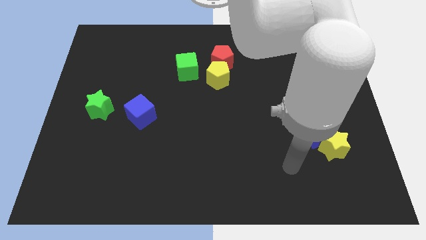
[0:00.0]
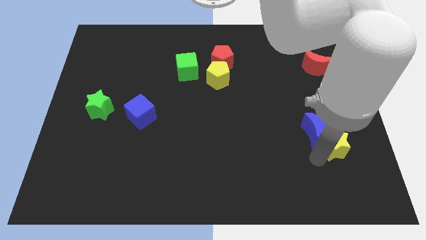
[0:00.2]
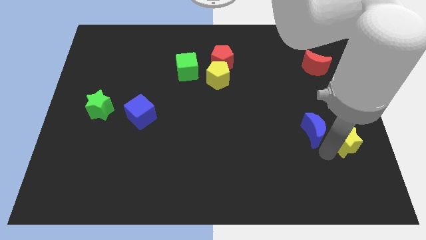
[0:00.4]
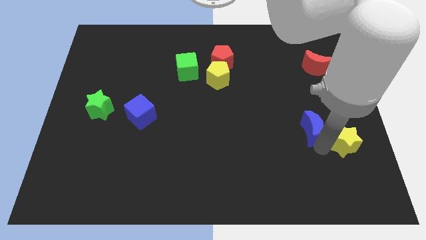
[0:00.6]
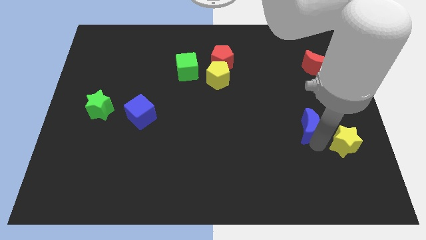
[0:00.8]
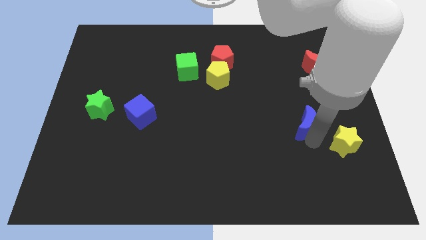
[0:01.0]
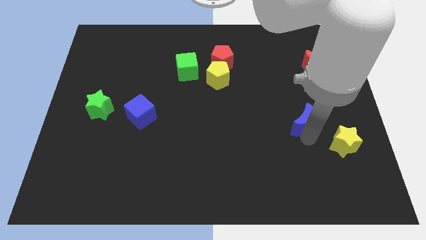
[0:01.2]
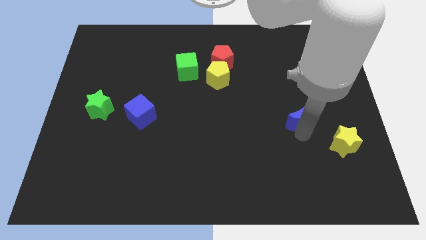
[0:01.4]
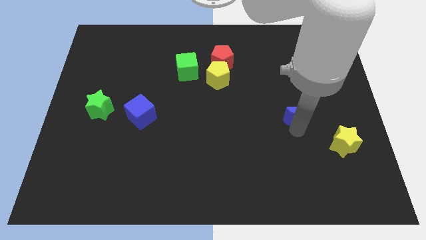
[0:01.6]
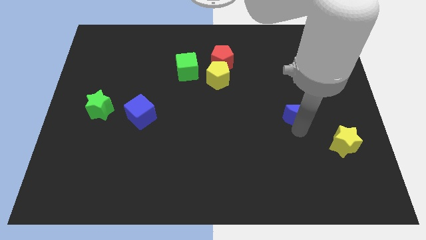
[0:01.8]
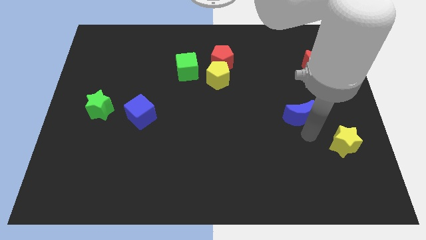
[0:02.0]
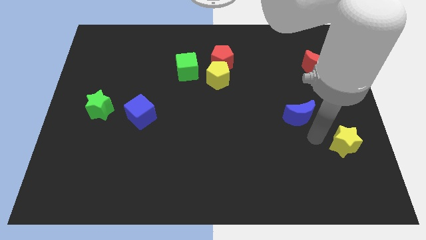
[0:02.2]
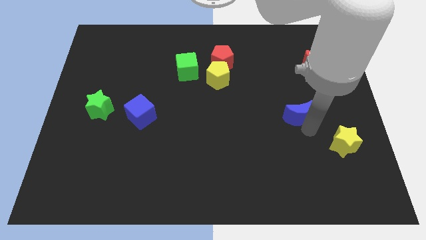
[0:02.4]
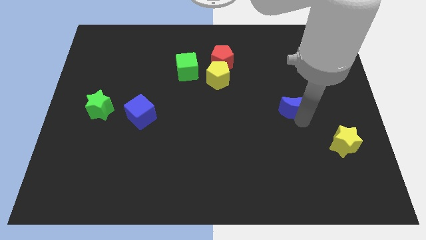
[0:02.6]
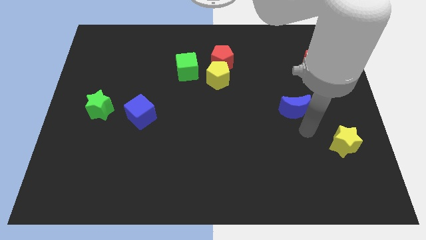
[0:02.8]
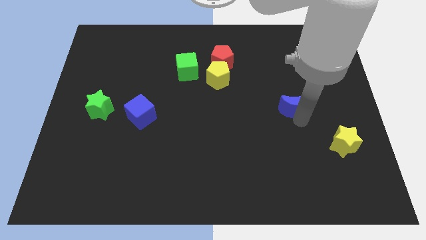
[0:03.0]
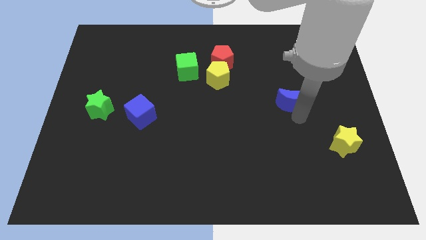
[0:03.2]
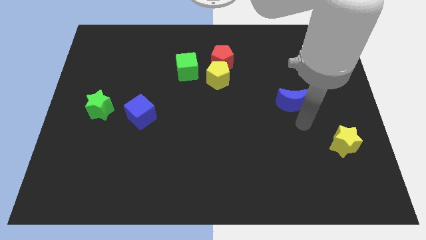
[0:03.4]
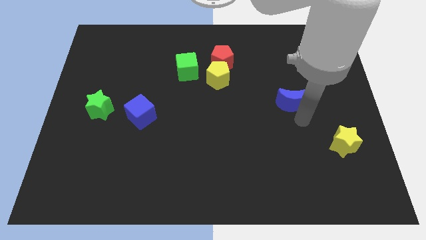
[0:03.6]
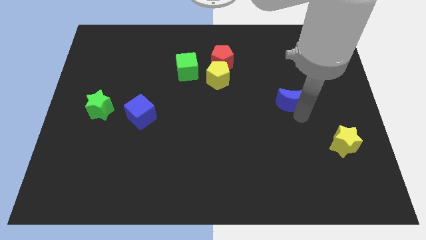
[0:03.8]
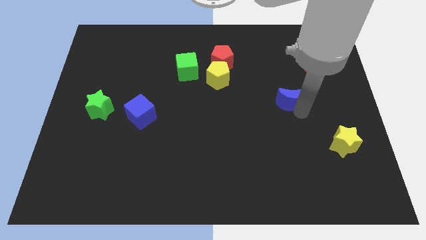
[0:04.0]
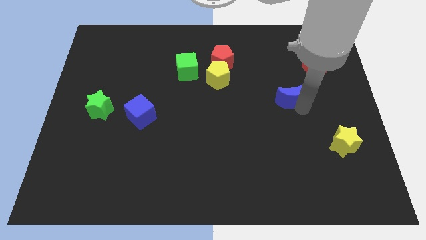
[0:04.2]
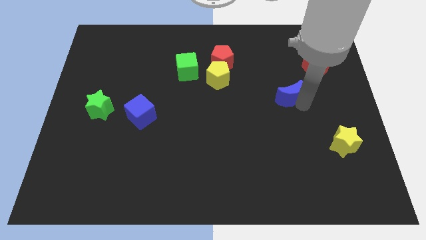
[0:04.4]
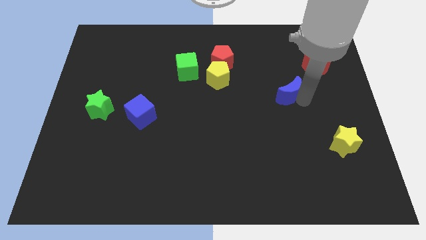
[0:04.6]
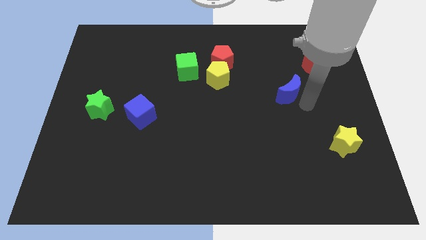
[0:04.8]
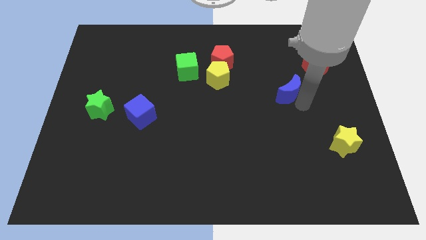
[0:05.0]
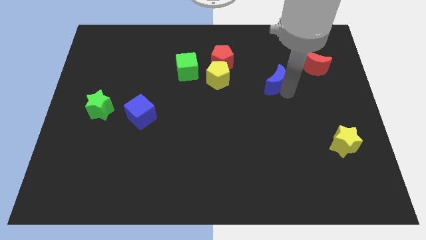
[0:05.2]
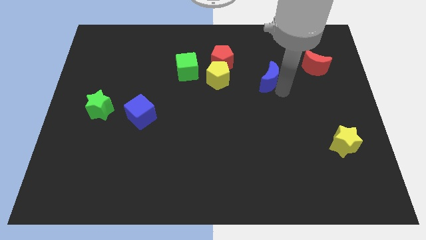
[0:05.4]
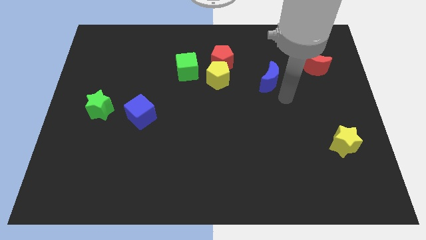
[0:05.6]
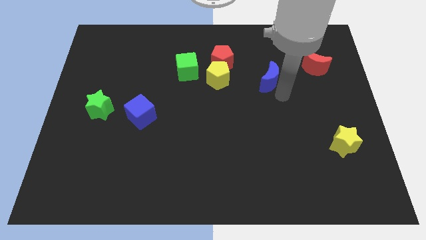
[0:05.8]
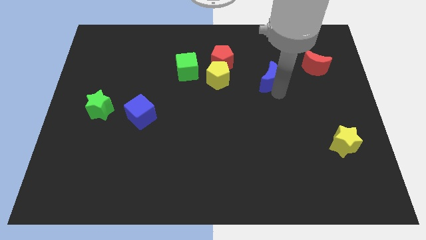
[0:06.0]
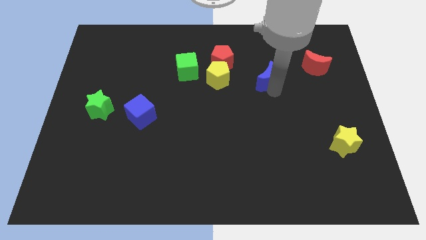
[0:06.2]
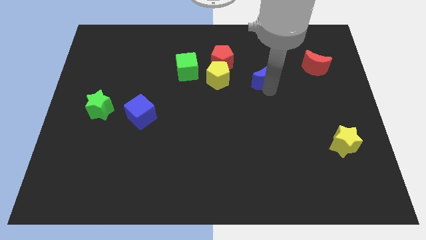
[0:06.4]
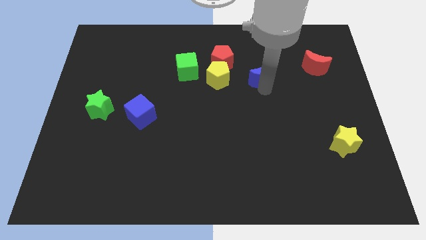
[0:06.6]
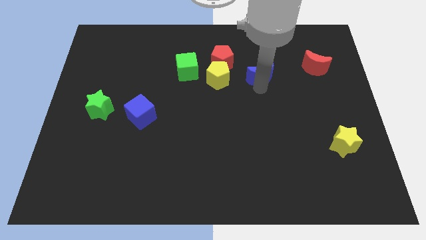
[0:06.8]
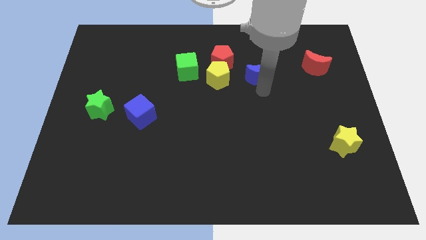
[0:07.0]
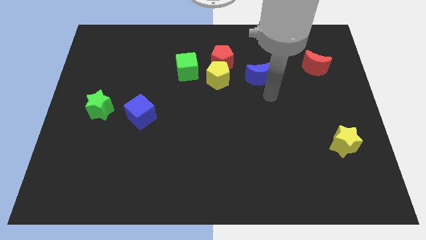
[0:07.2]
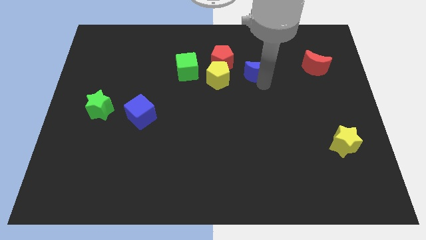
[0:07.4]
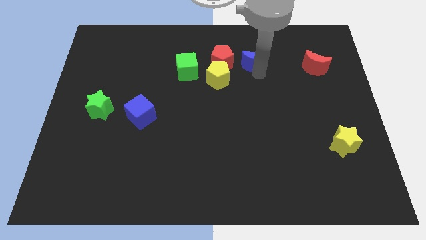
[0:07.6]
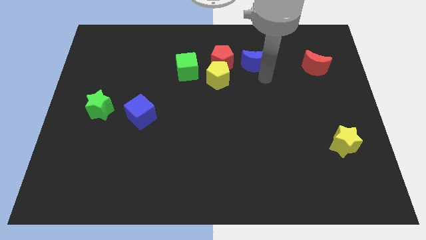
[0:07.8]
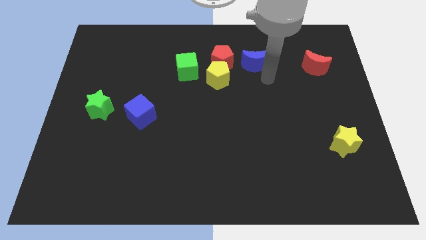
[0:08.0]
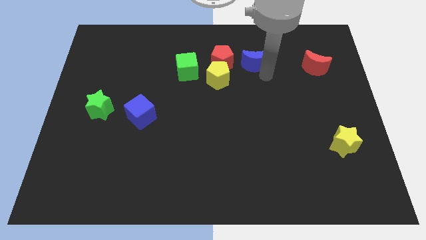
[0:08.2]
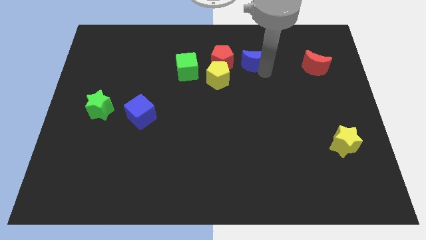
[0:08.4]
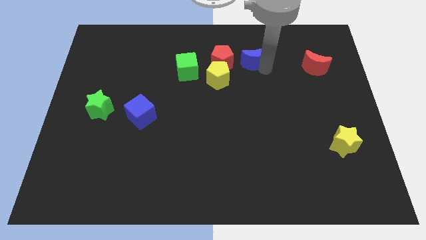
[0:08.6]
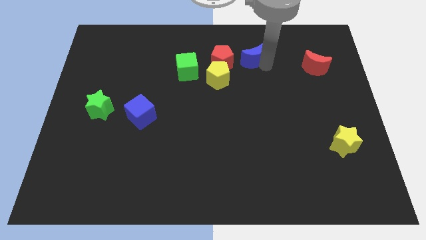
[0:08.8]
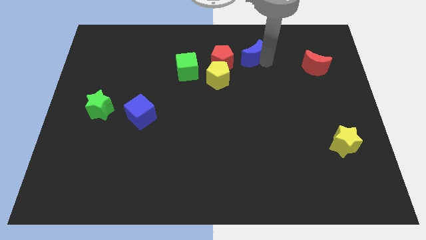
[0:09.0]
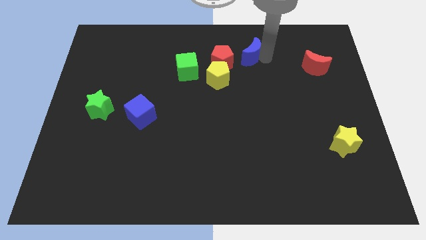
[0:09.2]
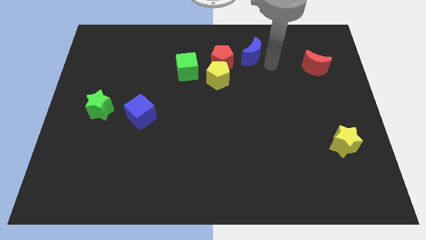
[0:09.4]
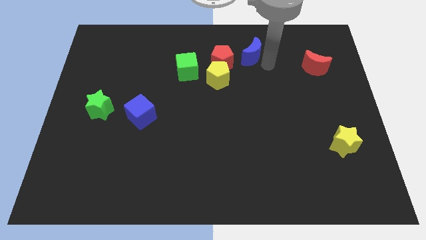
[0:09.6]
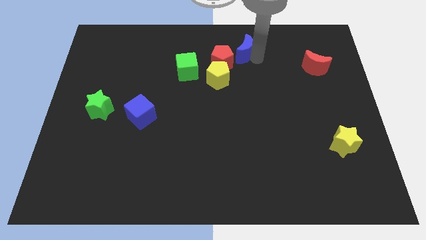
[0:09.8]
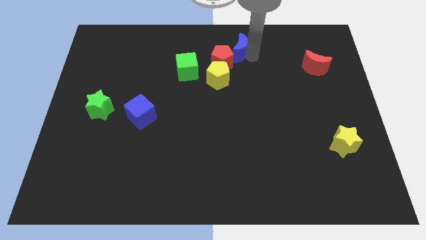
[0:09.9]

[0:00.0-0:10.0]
slide the blue moon to the top

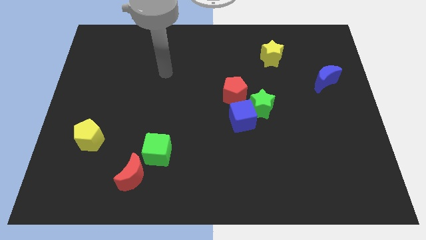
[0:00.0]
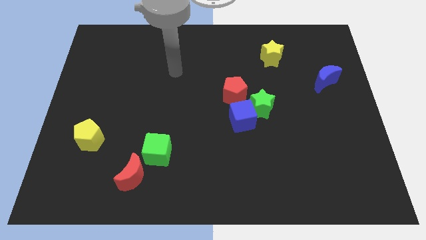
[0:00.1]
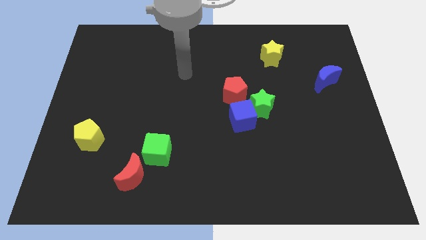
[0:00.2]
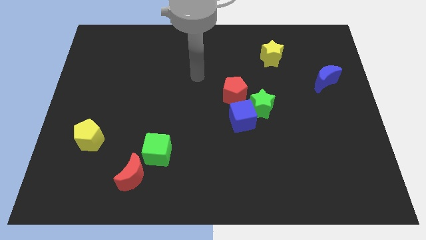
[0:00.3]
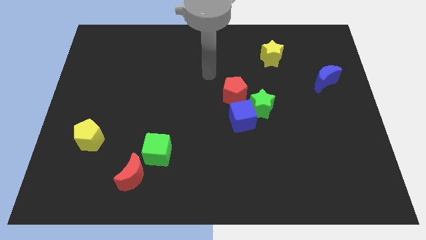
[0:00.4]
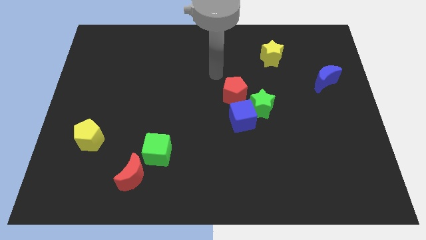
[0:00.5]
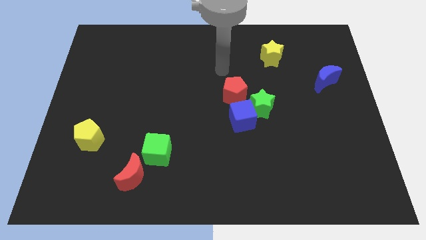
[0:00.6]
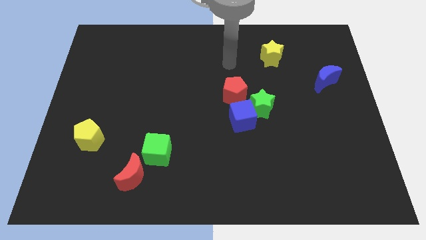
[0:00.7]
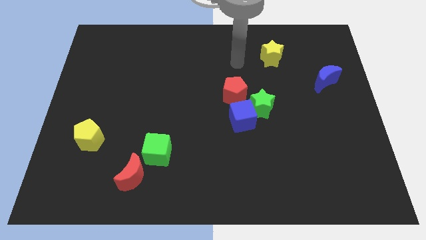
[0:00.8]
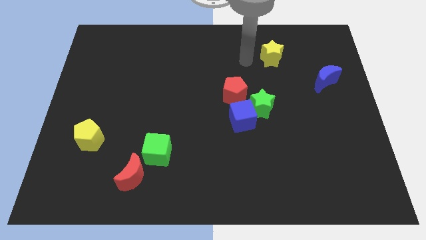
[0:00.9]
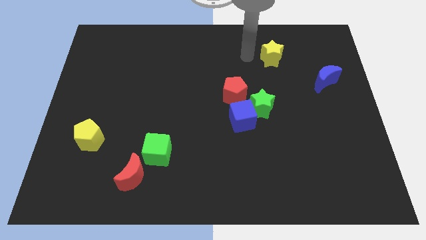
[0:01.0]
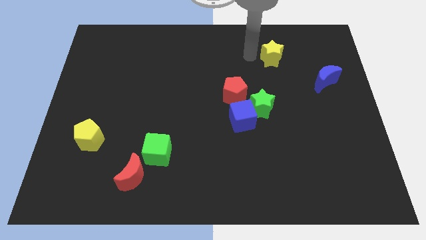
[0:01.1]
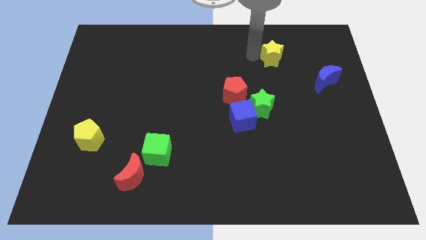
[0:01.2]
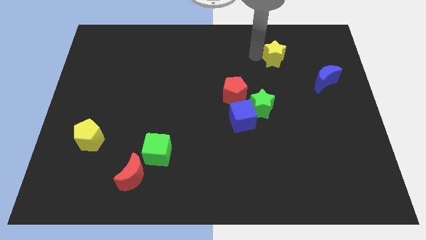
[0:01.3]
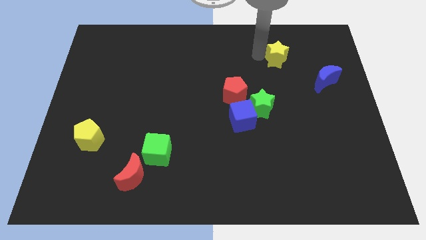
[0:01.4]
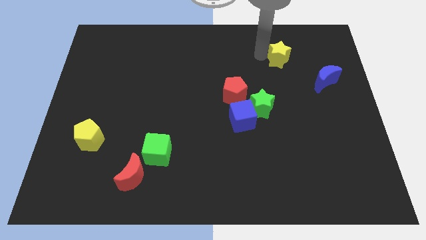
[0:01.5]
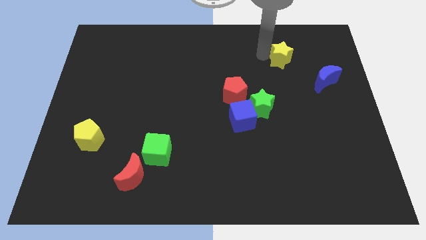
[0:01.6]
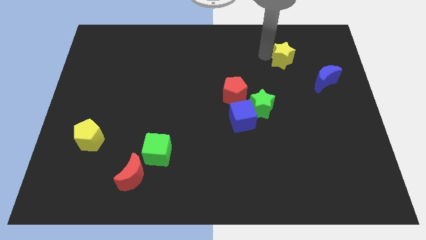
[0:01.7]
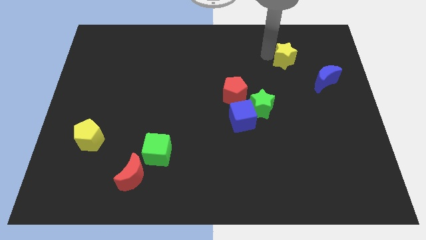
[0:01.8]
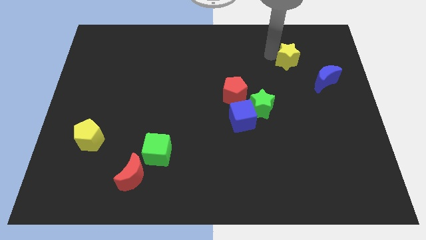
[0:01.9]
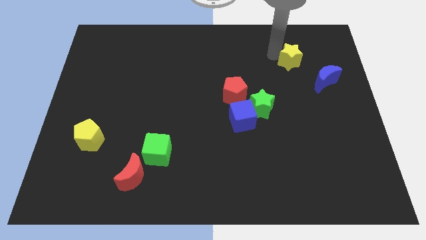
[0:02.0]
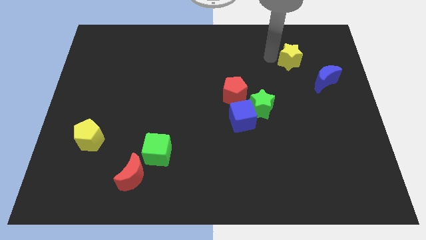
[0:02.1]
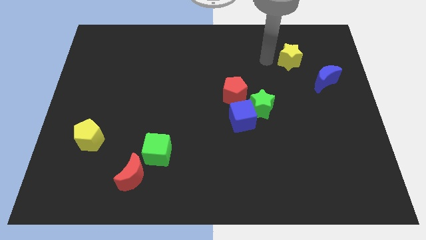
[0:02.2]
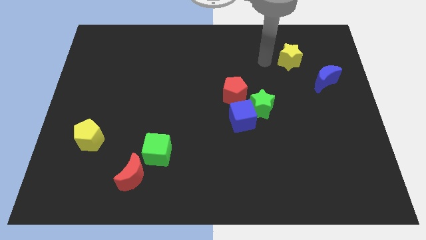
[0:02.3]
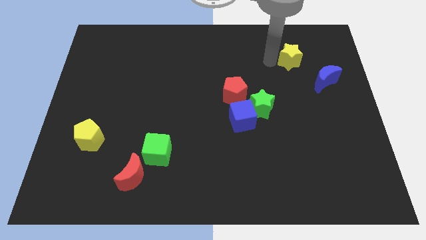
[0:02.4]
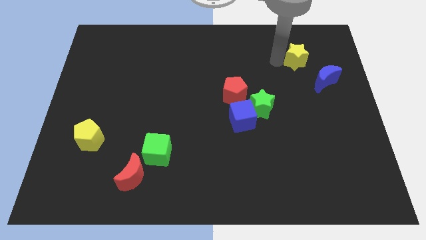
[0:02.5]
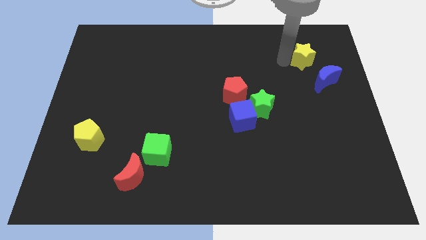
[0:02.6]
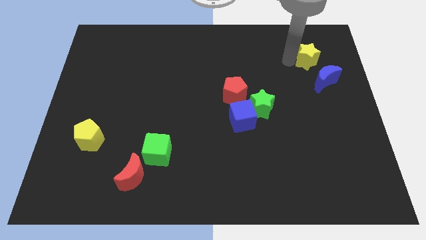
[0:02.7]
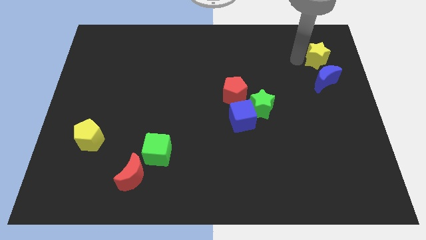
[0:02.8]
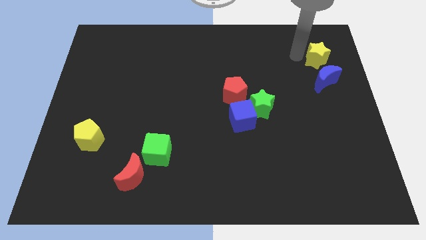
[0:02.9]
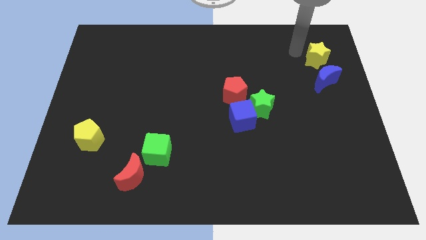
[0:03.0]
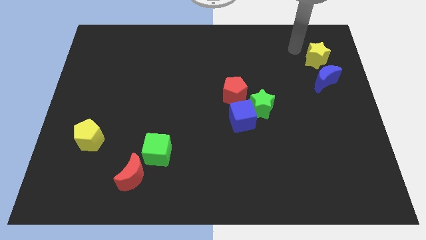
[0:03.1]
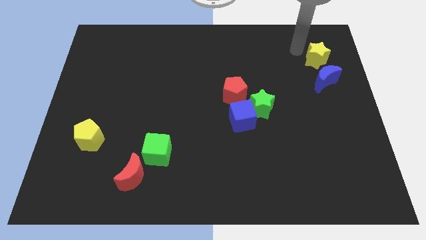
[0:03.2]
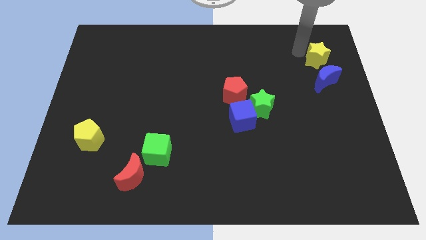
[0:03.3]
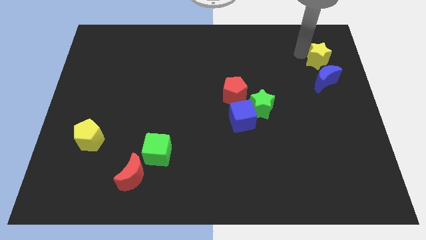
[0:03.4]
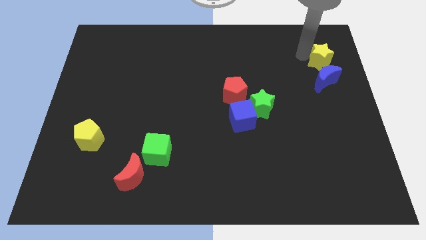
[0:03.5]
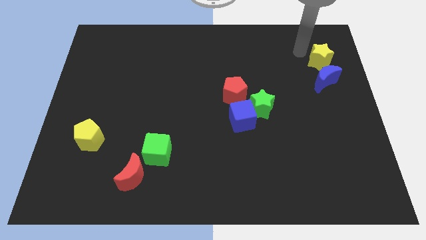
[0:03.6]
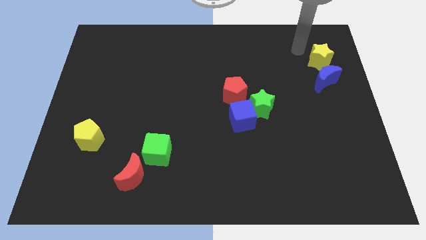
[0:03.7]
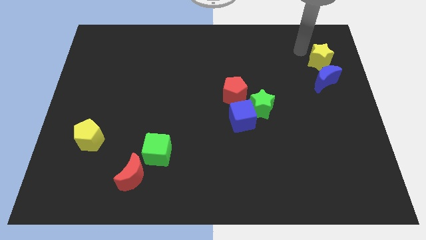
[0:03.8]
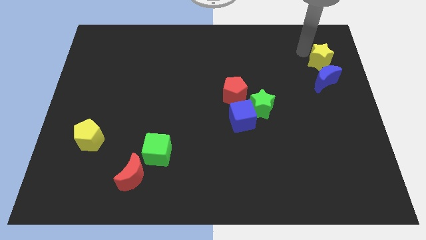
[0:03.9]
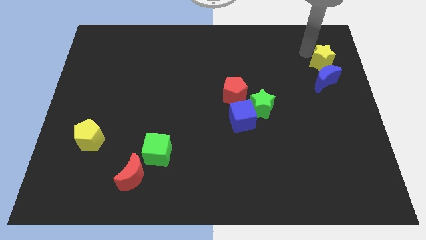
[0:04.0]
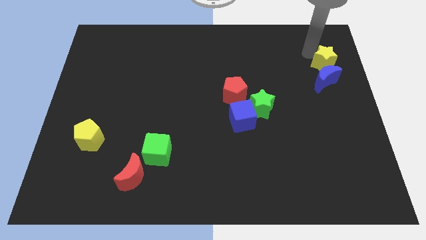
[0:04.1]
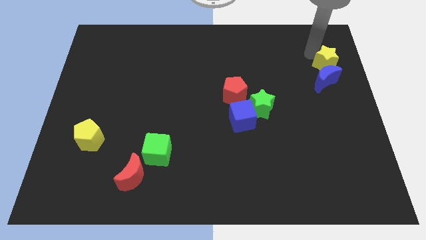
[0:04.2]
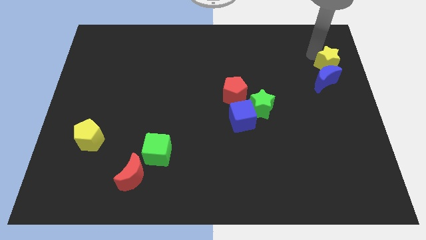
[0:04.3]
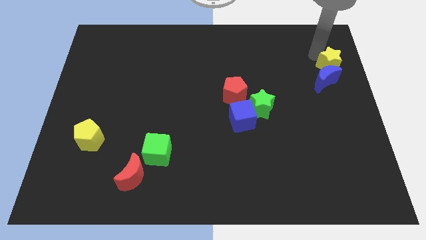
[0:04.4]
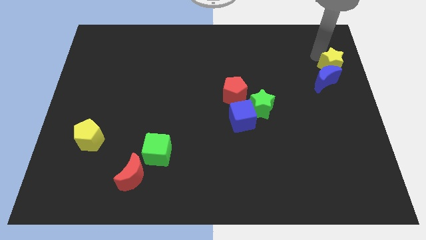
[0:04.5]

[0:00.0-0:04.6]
move the yellow star to the center right
